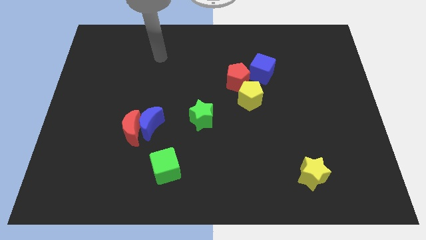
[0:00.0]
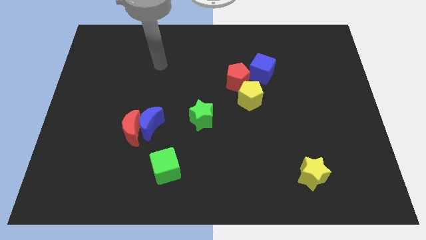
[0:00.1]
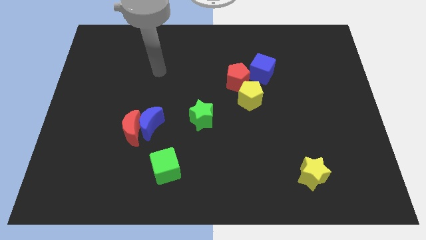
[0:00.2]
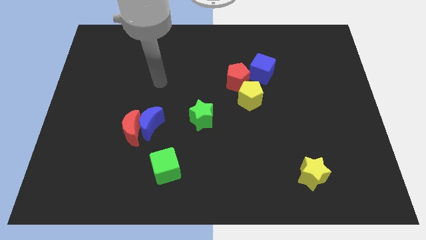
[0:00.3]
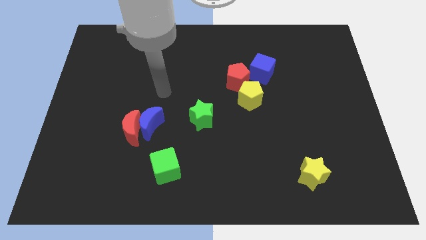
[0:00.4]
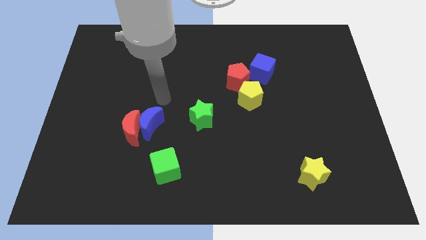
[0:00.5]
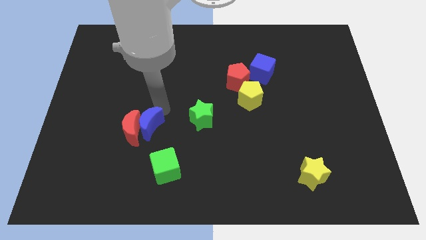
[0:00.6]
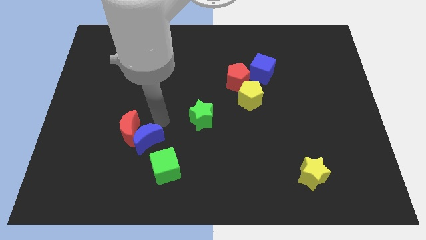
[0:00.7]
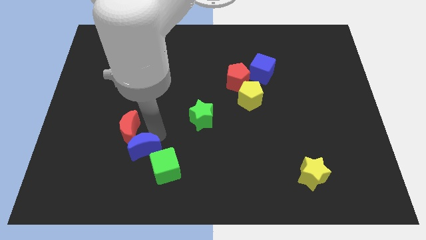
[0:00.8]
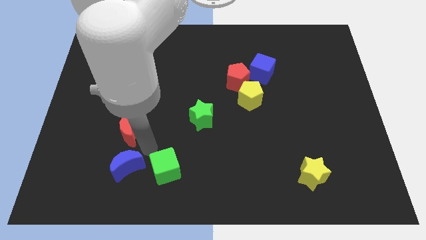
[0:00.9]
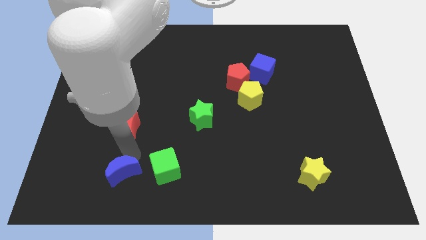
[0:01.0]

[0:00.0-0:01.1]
move the red moon away from the blue moon

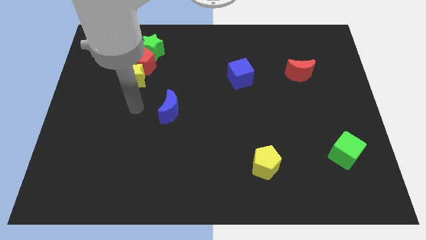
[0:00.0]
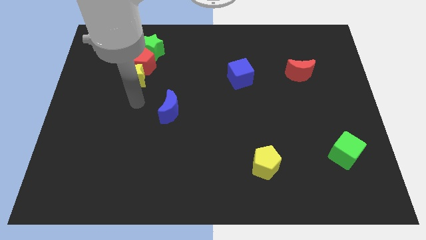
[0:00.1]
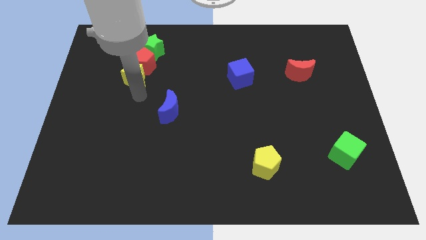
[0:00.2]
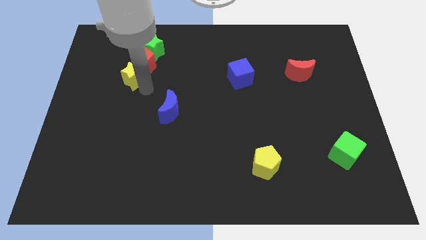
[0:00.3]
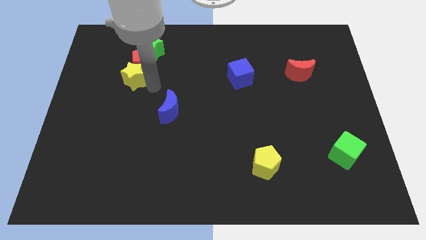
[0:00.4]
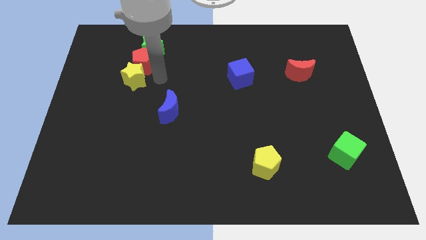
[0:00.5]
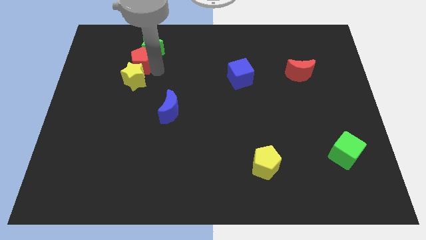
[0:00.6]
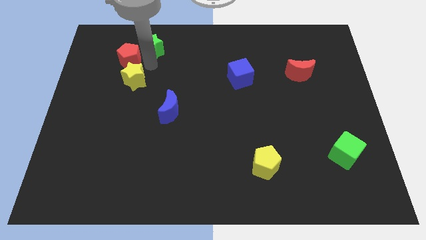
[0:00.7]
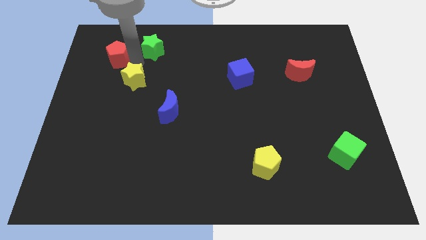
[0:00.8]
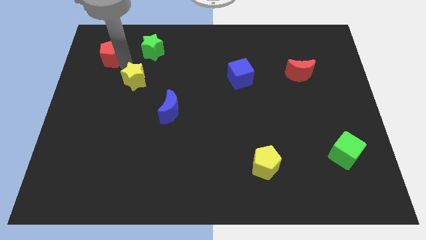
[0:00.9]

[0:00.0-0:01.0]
pull the yellow star apart from the red pentagon

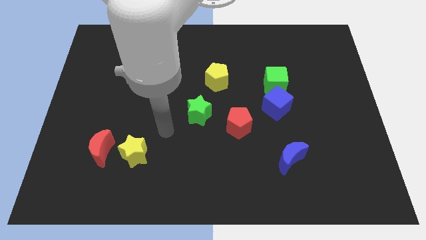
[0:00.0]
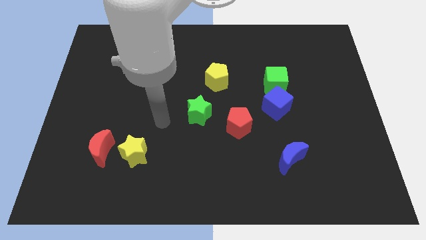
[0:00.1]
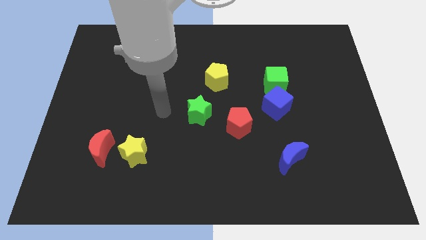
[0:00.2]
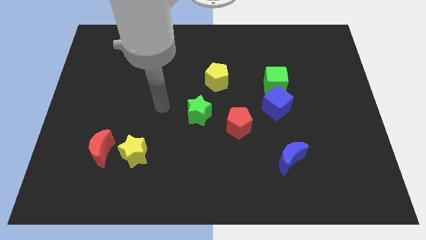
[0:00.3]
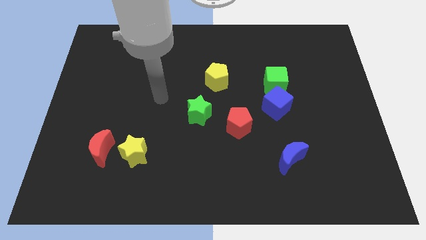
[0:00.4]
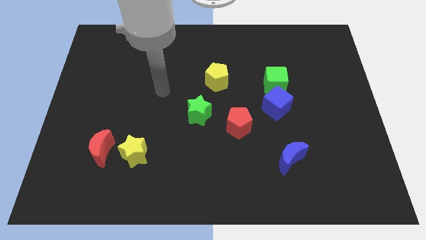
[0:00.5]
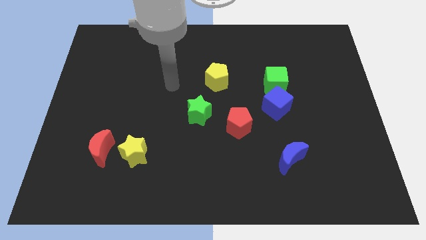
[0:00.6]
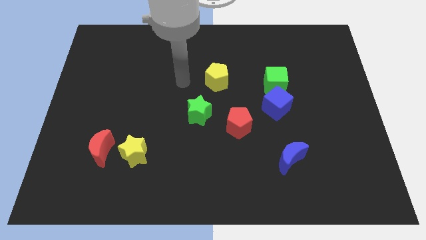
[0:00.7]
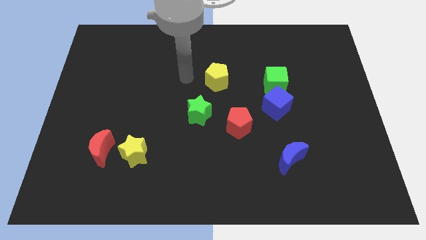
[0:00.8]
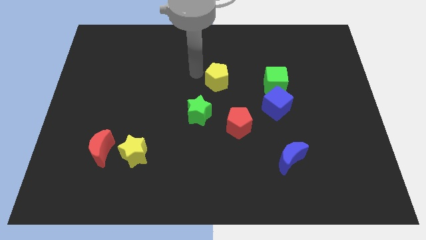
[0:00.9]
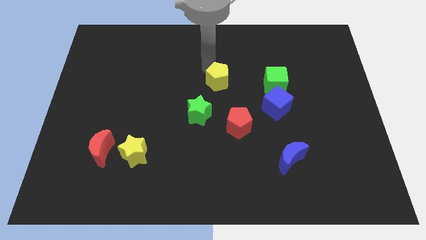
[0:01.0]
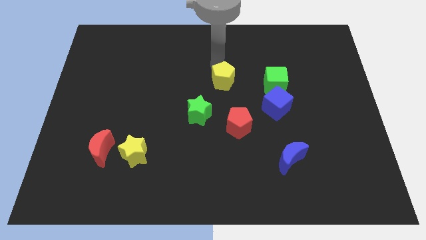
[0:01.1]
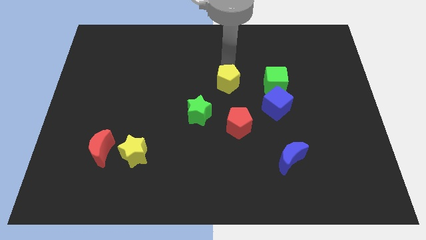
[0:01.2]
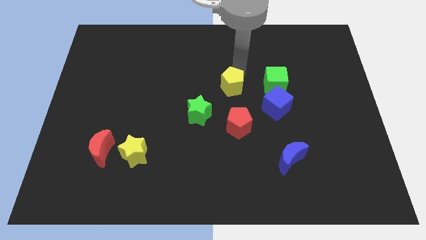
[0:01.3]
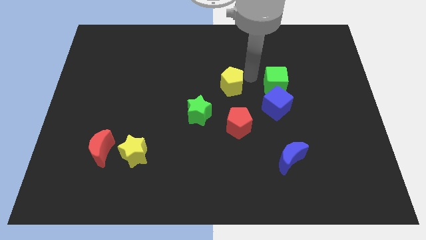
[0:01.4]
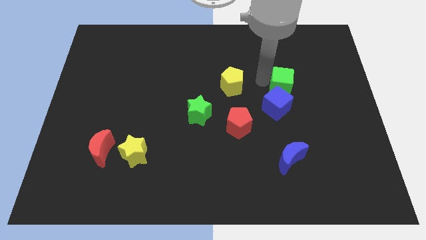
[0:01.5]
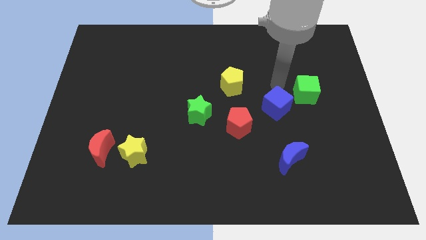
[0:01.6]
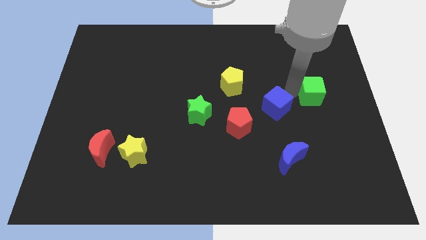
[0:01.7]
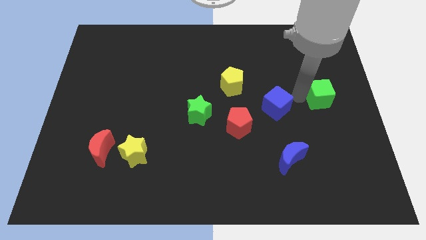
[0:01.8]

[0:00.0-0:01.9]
move the blue cube away from the green cube

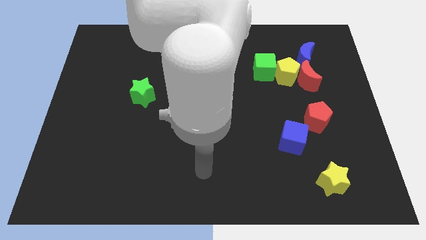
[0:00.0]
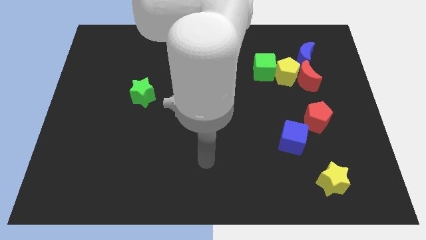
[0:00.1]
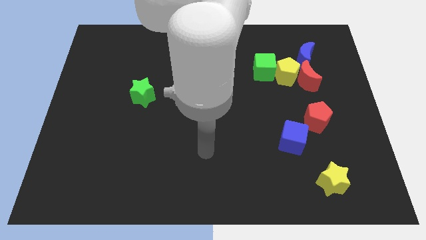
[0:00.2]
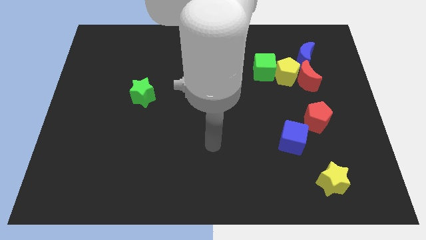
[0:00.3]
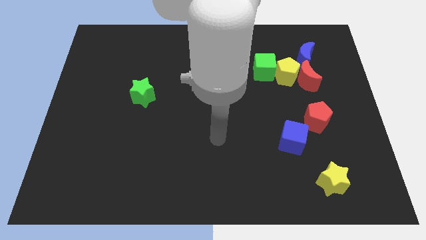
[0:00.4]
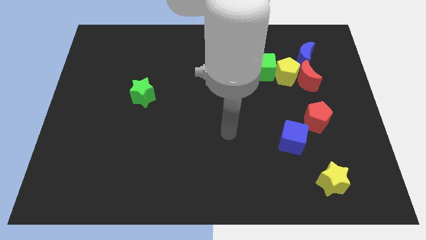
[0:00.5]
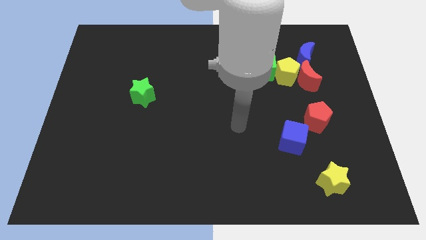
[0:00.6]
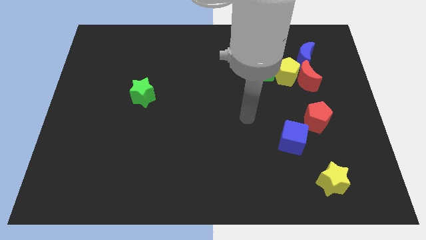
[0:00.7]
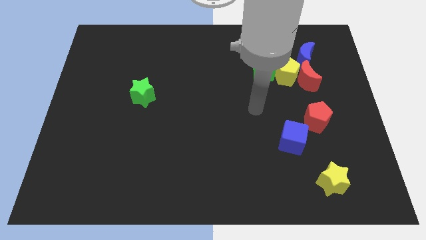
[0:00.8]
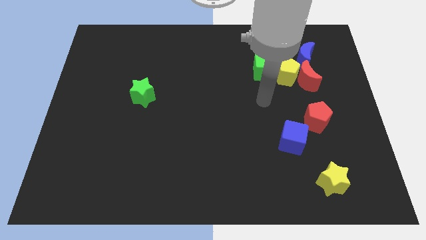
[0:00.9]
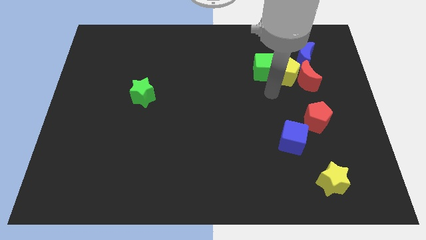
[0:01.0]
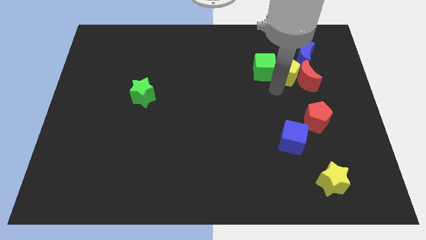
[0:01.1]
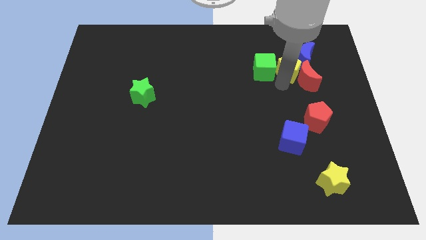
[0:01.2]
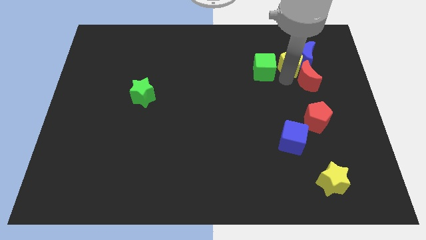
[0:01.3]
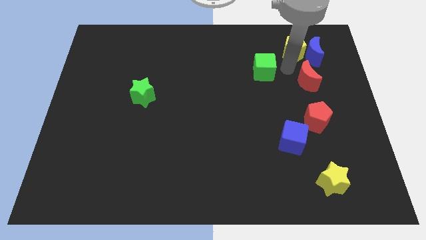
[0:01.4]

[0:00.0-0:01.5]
pull the green cube apart from the yellow pentagon

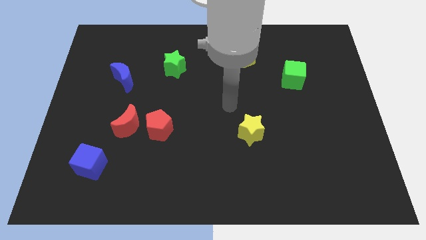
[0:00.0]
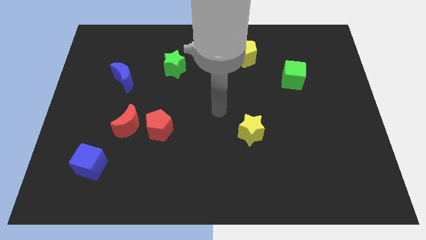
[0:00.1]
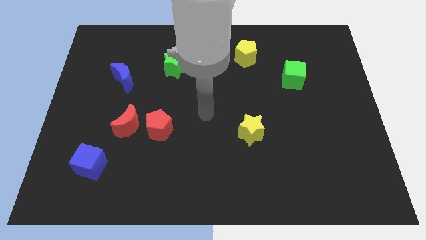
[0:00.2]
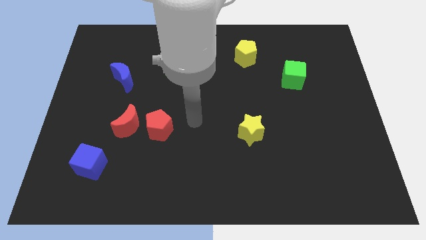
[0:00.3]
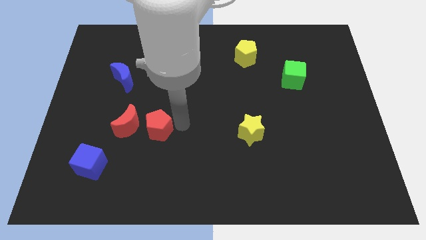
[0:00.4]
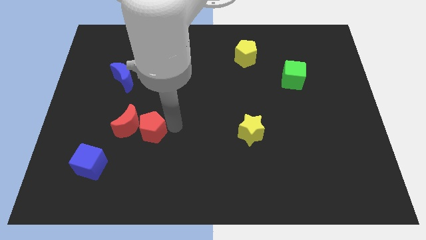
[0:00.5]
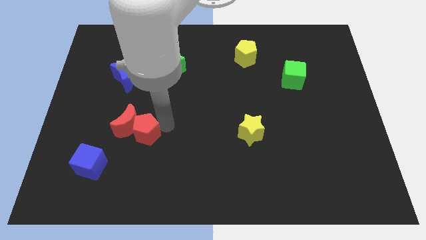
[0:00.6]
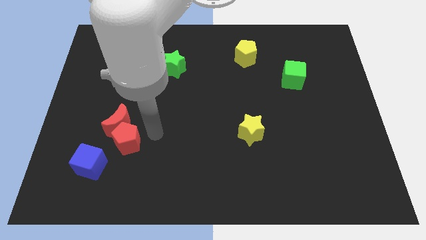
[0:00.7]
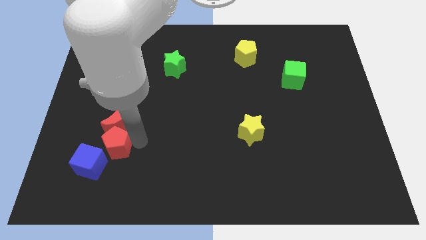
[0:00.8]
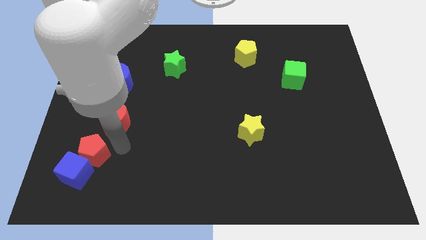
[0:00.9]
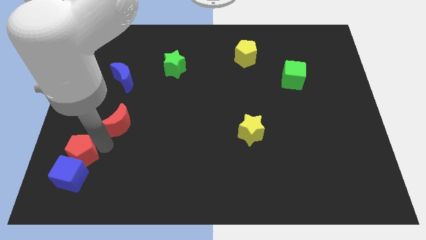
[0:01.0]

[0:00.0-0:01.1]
separate the red moon from the red pentagon

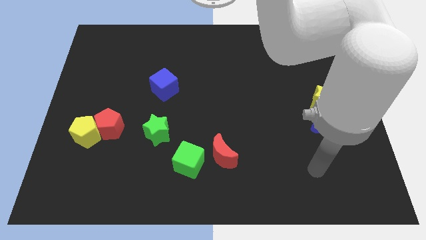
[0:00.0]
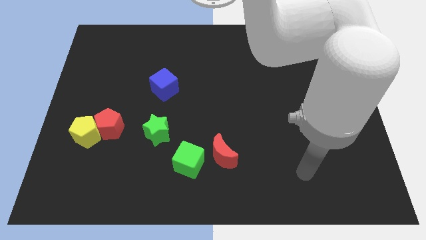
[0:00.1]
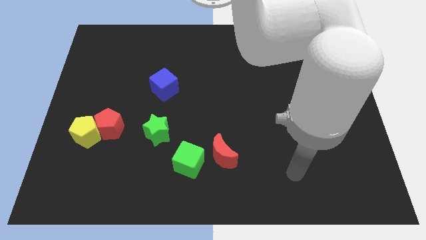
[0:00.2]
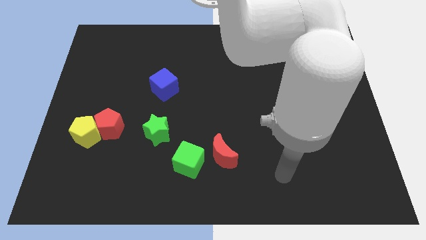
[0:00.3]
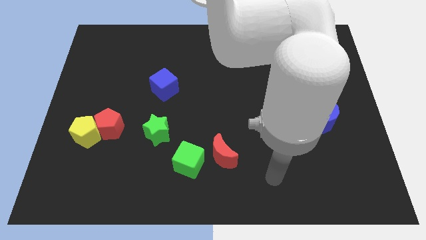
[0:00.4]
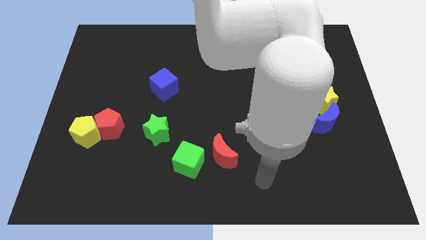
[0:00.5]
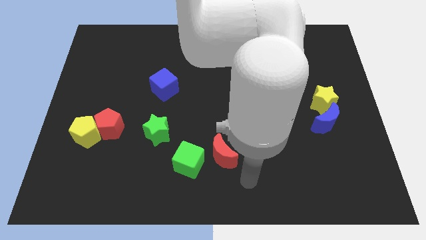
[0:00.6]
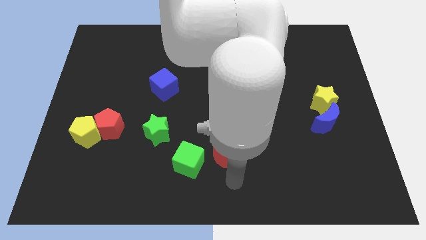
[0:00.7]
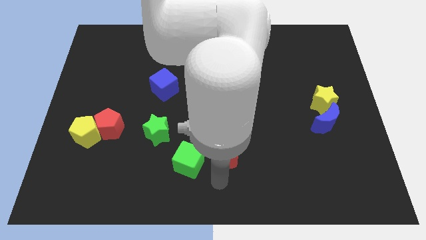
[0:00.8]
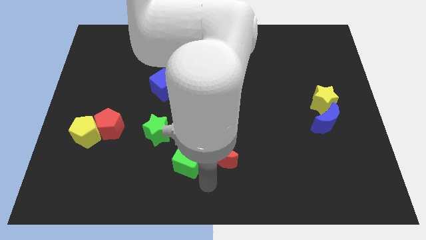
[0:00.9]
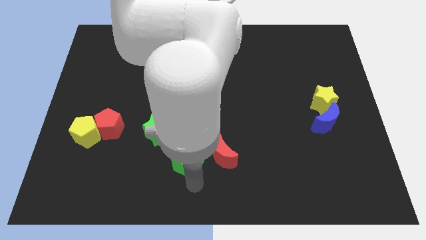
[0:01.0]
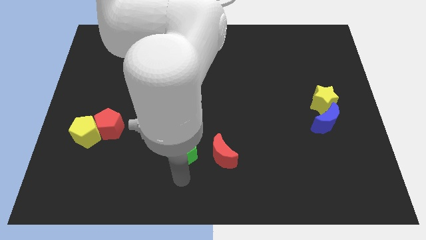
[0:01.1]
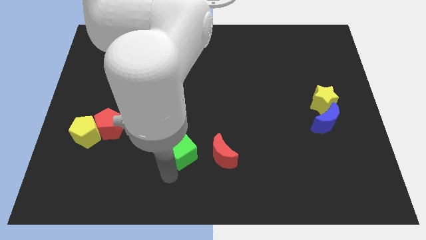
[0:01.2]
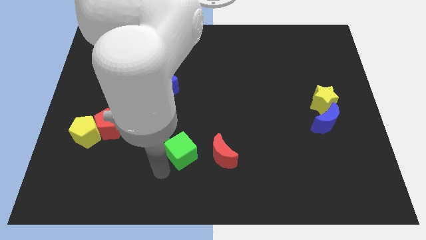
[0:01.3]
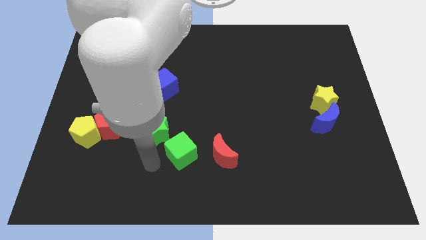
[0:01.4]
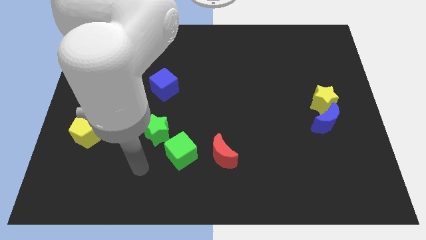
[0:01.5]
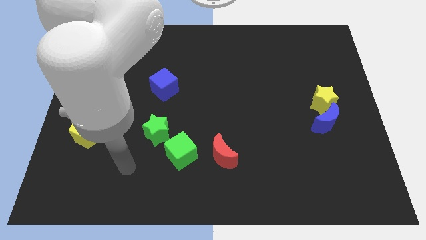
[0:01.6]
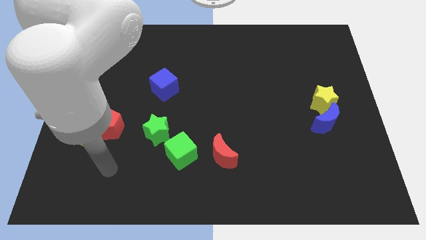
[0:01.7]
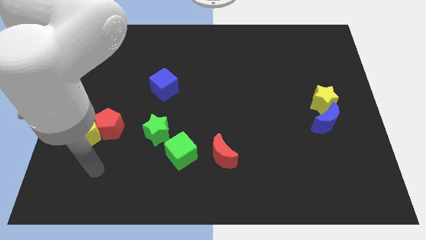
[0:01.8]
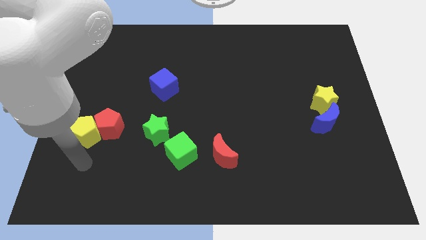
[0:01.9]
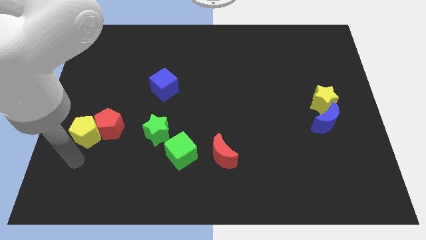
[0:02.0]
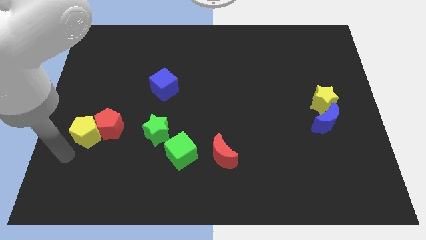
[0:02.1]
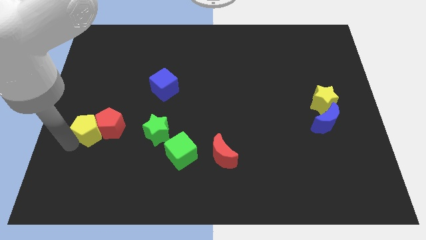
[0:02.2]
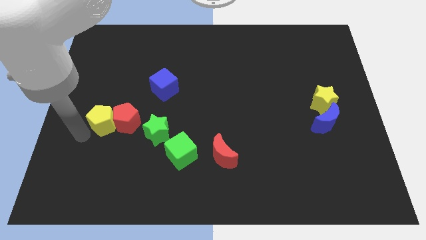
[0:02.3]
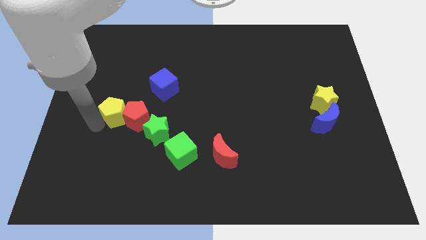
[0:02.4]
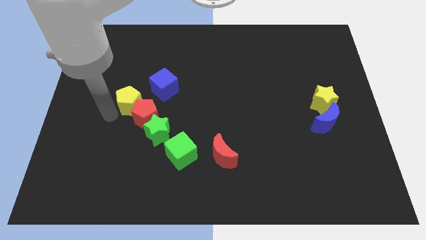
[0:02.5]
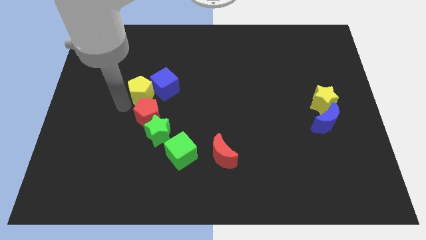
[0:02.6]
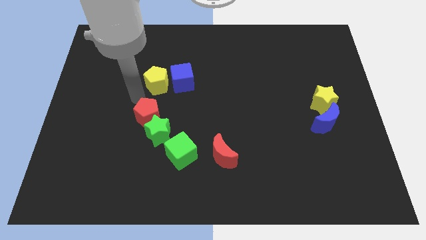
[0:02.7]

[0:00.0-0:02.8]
separate the red pentagon from the yellow pentagon
